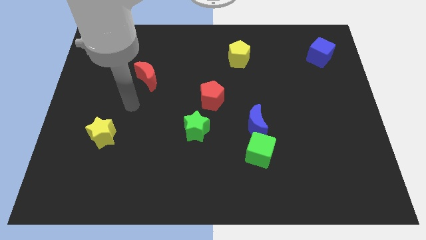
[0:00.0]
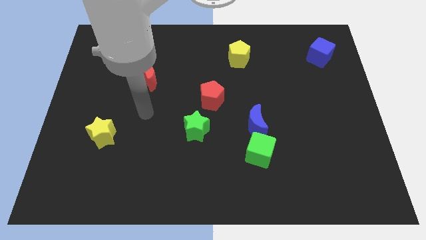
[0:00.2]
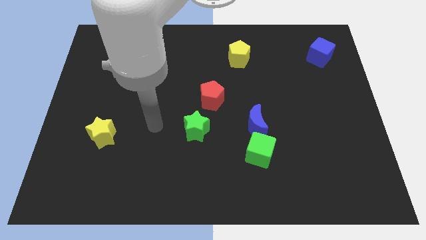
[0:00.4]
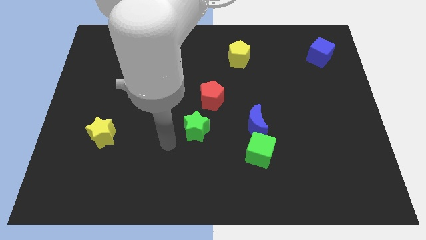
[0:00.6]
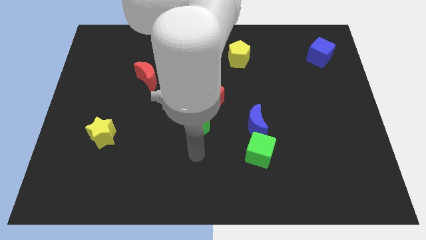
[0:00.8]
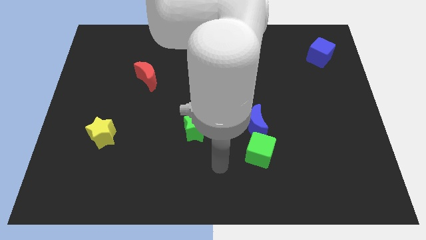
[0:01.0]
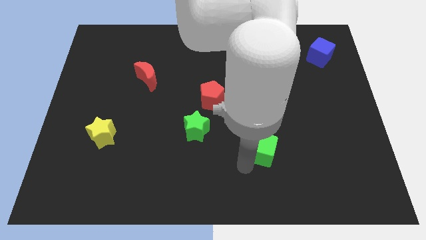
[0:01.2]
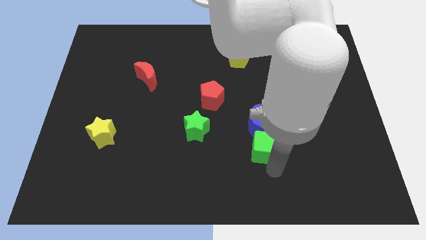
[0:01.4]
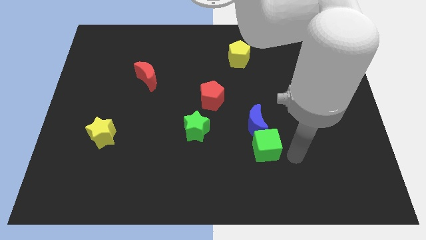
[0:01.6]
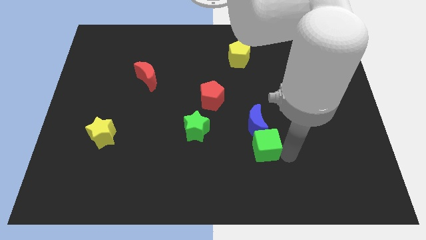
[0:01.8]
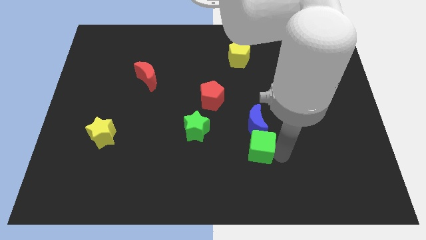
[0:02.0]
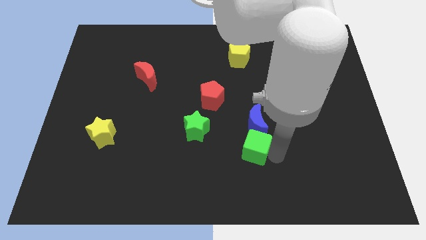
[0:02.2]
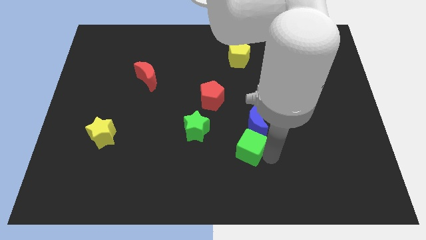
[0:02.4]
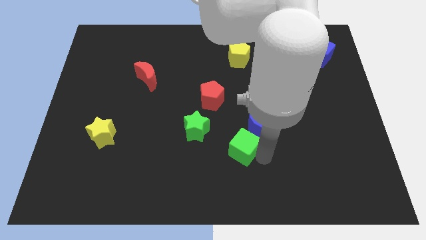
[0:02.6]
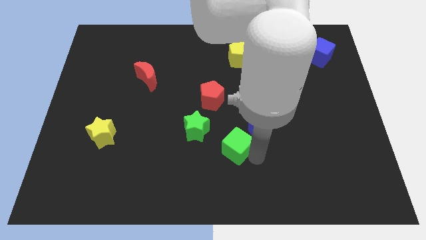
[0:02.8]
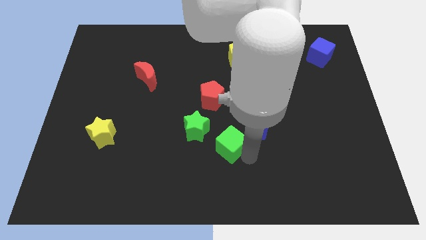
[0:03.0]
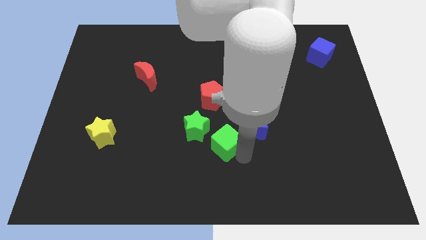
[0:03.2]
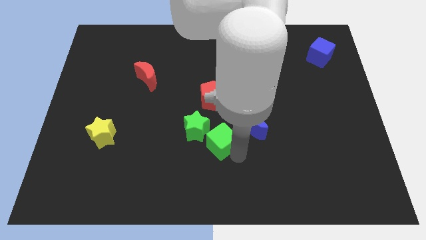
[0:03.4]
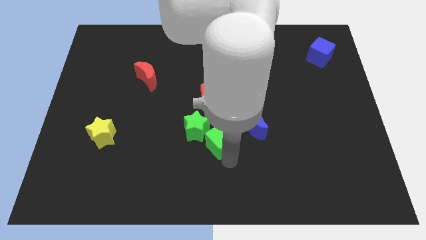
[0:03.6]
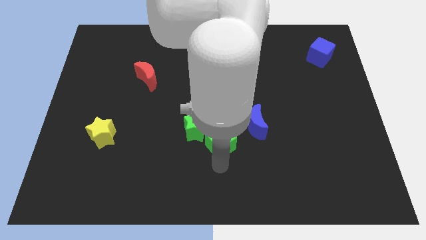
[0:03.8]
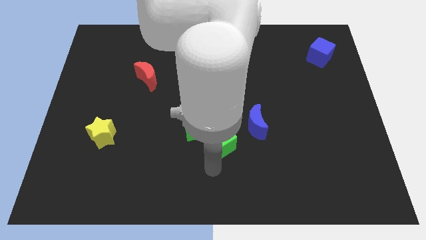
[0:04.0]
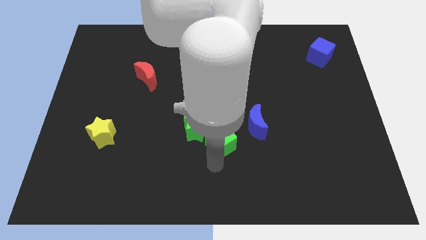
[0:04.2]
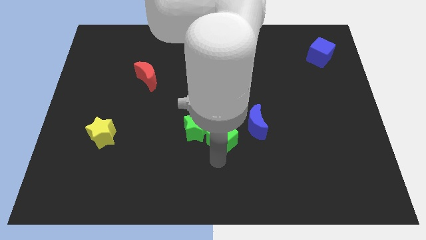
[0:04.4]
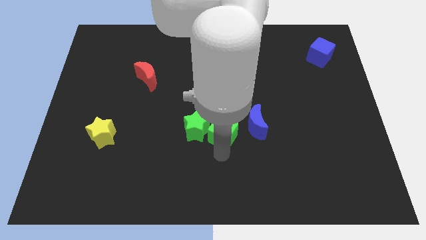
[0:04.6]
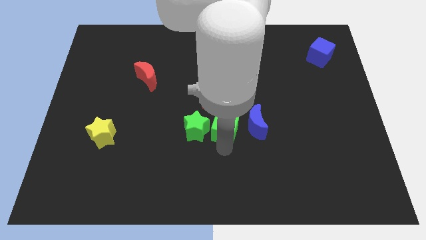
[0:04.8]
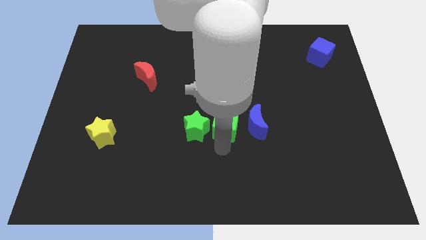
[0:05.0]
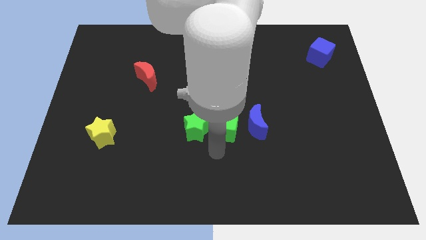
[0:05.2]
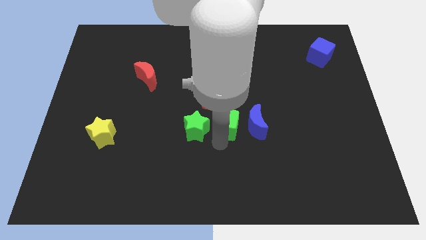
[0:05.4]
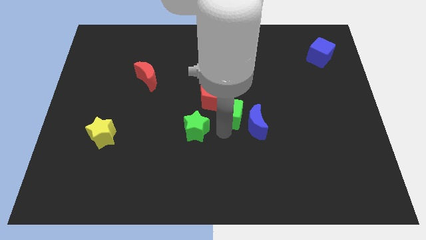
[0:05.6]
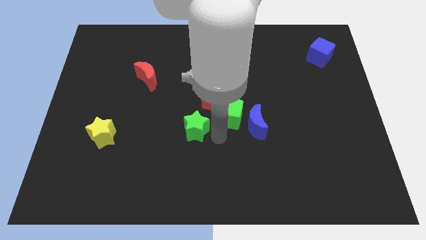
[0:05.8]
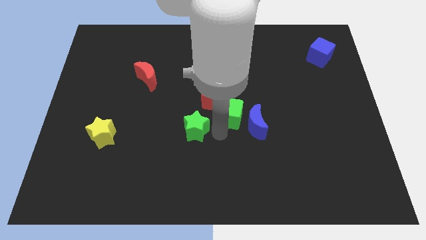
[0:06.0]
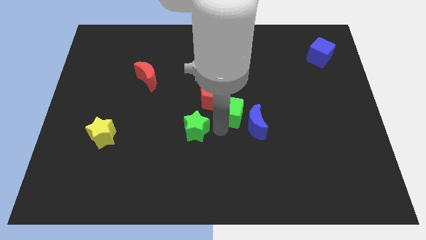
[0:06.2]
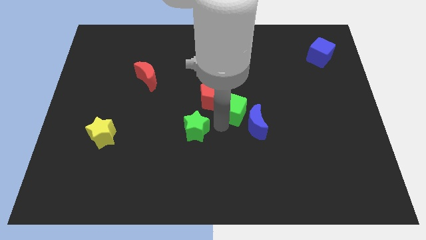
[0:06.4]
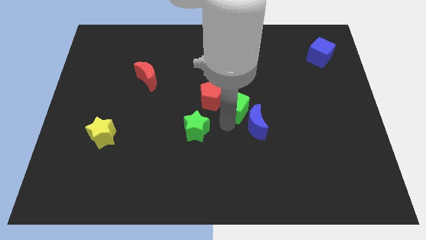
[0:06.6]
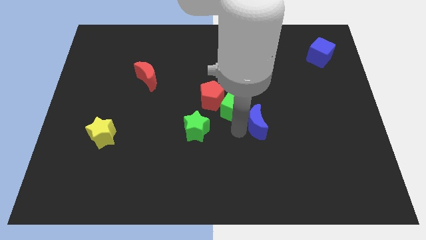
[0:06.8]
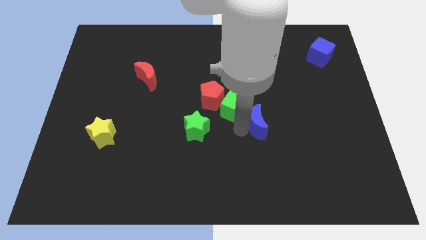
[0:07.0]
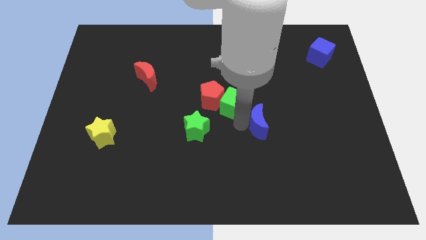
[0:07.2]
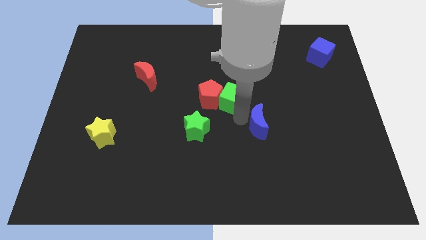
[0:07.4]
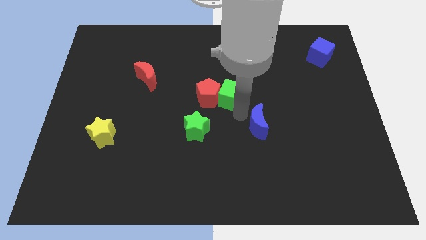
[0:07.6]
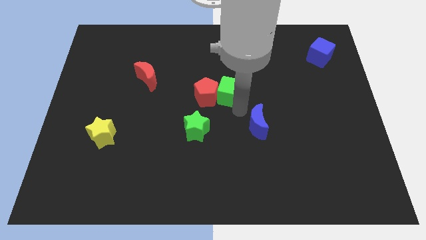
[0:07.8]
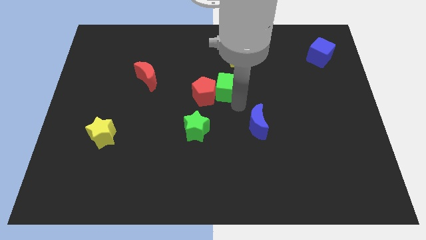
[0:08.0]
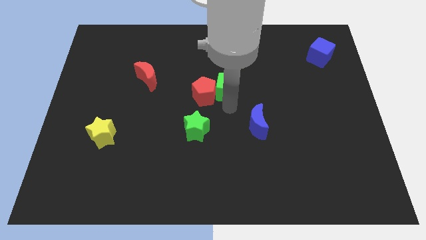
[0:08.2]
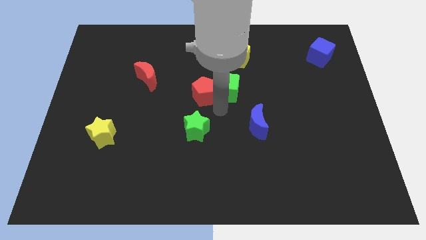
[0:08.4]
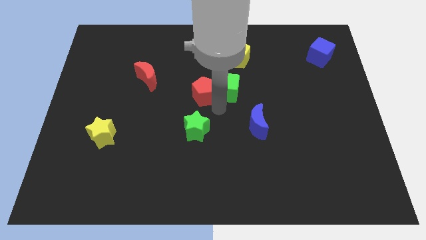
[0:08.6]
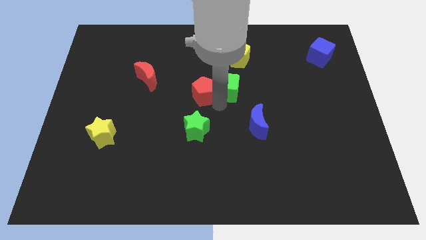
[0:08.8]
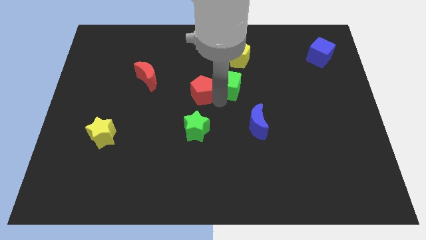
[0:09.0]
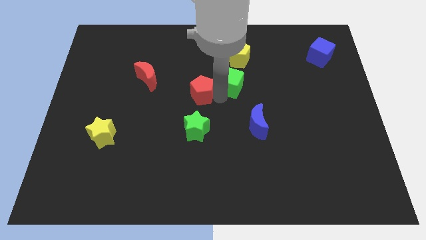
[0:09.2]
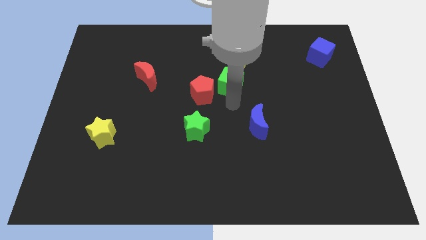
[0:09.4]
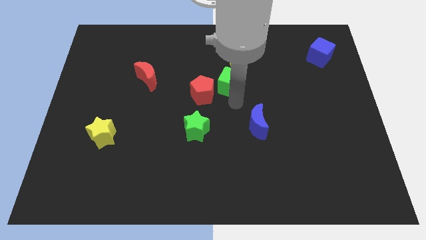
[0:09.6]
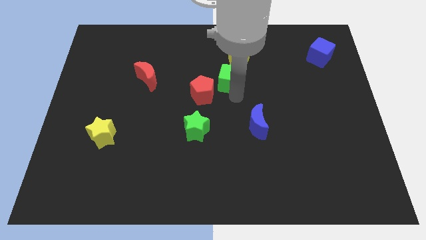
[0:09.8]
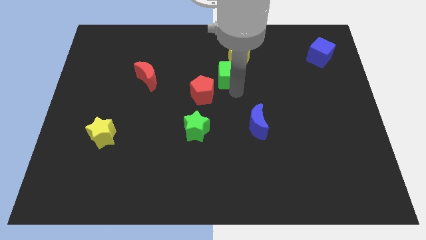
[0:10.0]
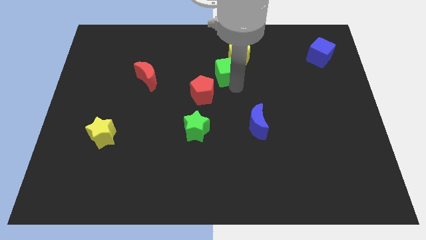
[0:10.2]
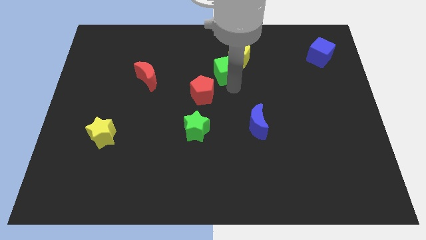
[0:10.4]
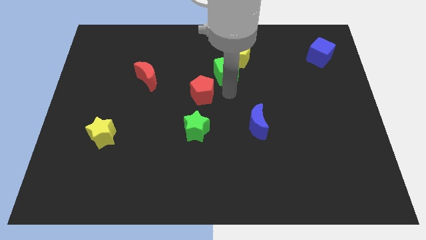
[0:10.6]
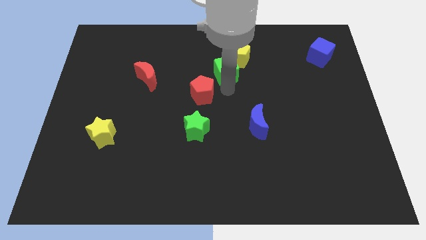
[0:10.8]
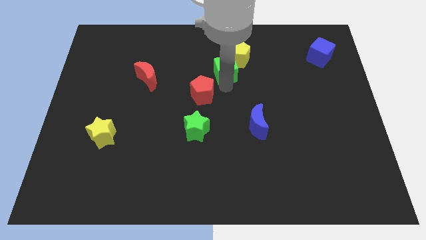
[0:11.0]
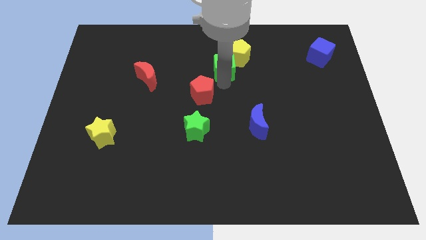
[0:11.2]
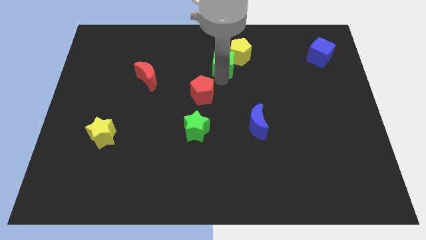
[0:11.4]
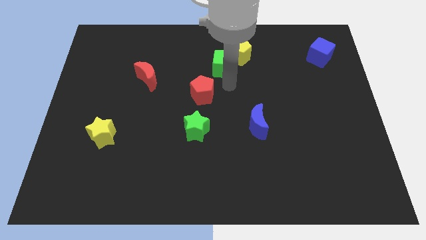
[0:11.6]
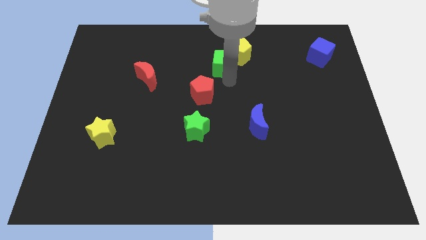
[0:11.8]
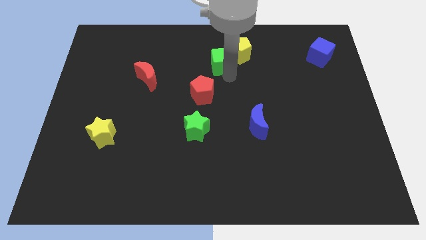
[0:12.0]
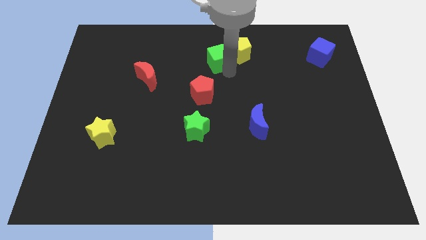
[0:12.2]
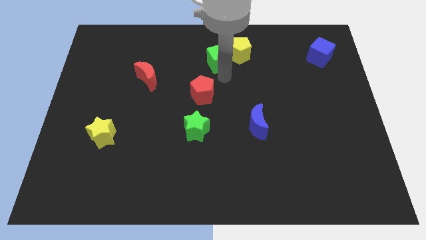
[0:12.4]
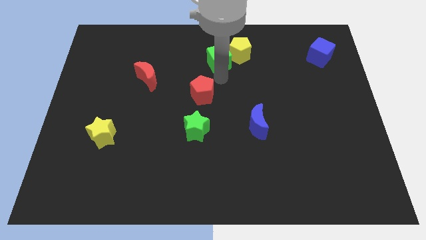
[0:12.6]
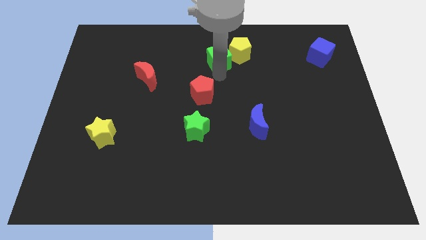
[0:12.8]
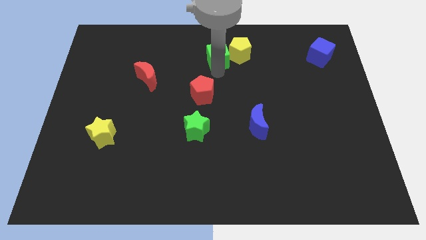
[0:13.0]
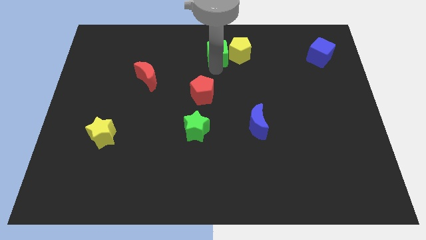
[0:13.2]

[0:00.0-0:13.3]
move the green cube to the top
